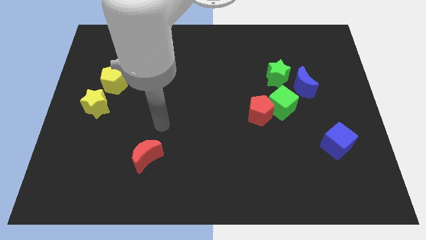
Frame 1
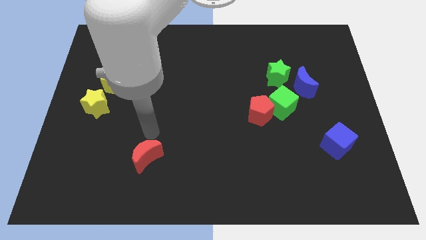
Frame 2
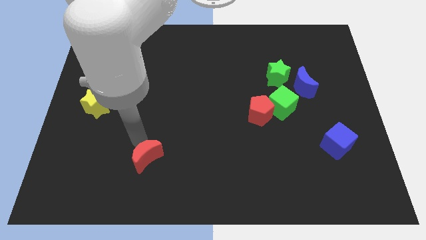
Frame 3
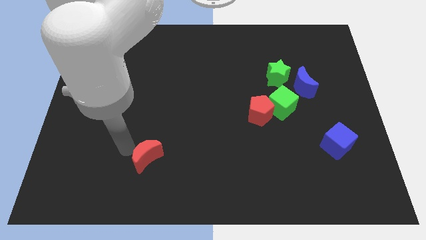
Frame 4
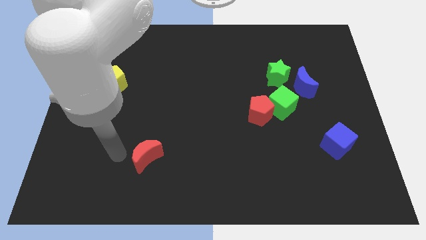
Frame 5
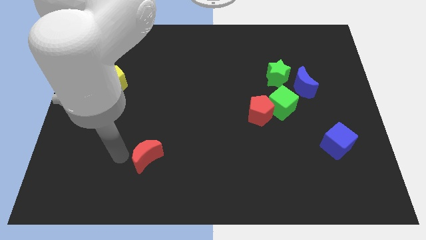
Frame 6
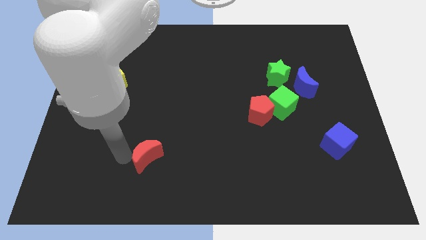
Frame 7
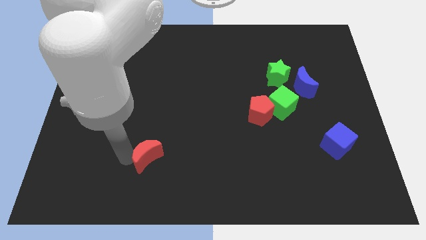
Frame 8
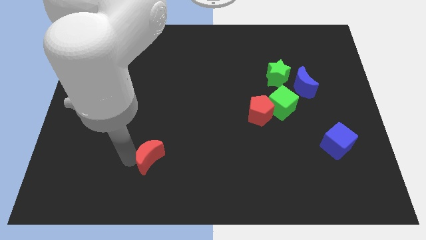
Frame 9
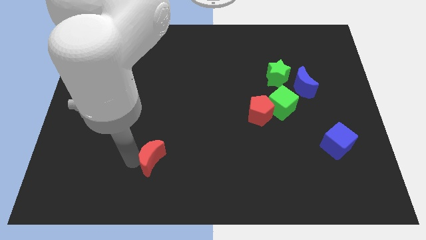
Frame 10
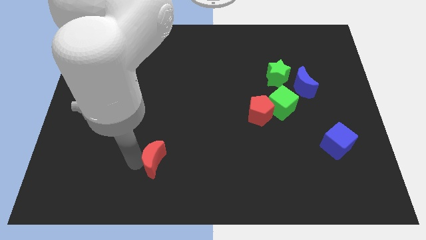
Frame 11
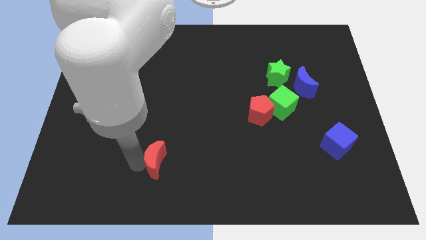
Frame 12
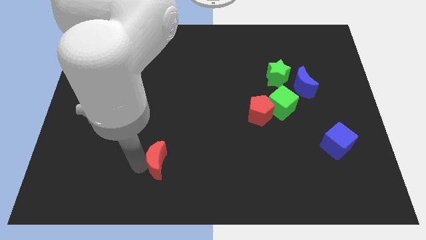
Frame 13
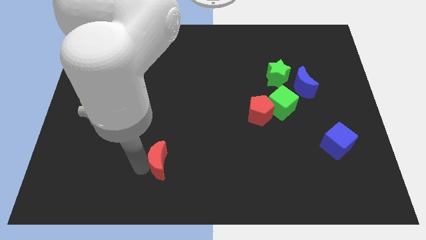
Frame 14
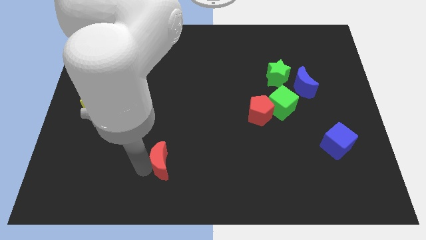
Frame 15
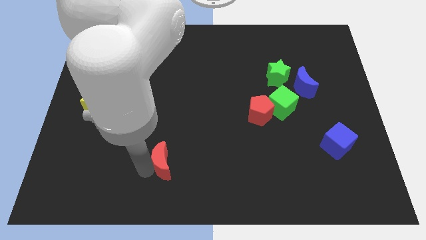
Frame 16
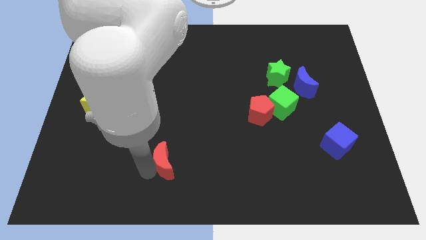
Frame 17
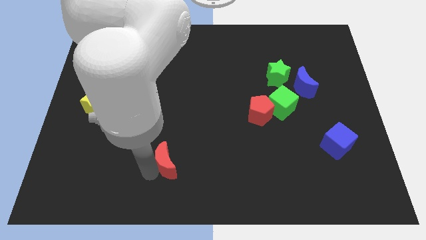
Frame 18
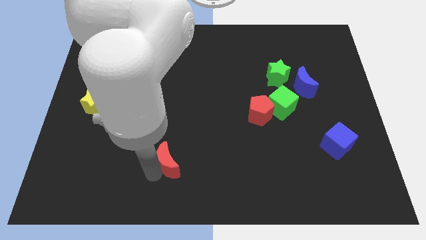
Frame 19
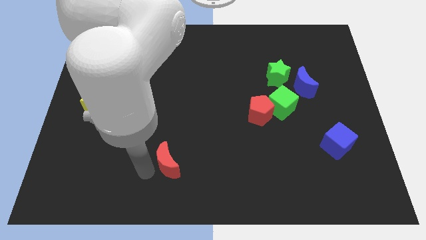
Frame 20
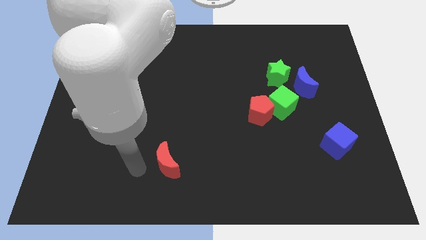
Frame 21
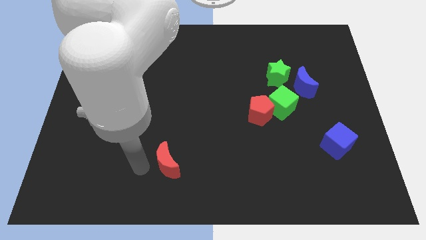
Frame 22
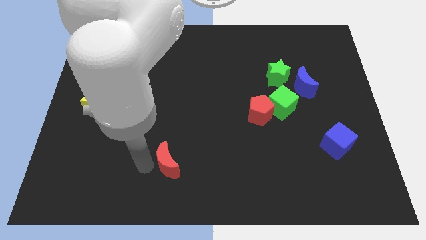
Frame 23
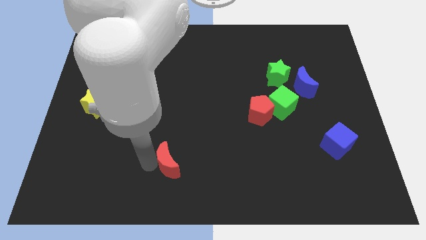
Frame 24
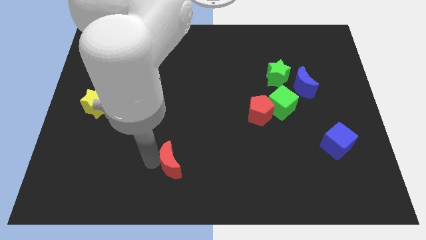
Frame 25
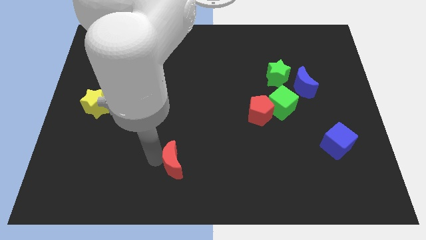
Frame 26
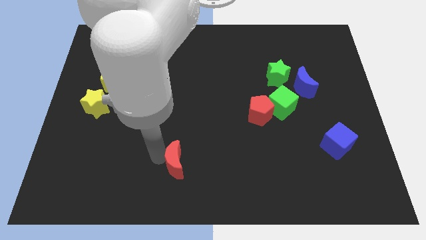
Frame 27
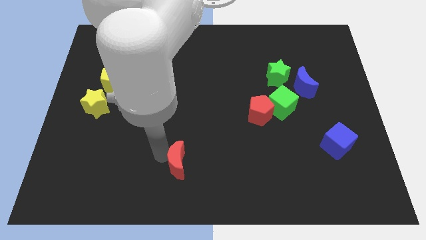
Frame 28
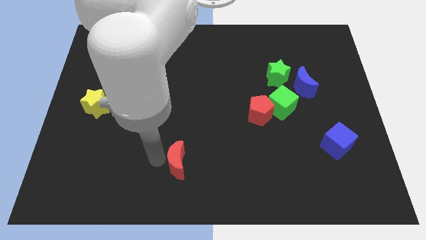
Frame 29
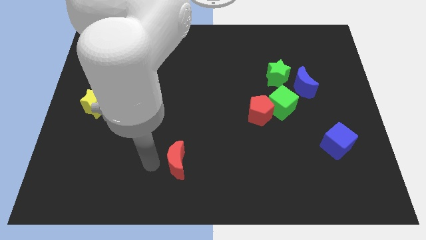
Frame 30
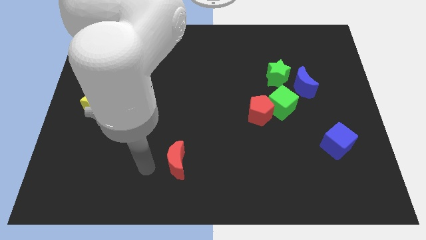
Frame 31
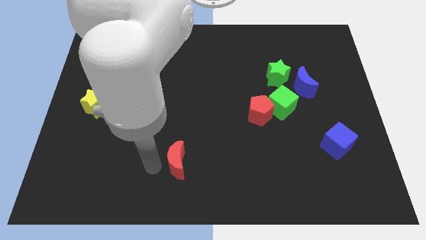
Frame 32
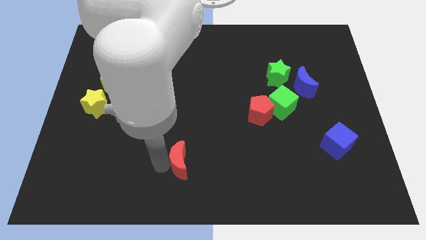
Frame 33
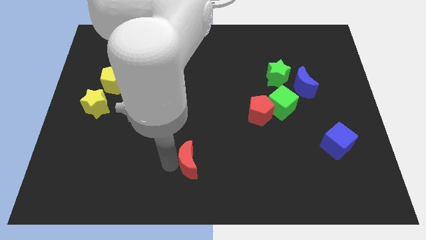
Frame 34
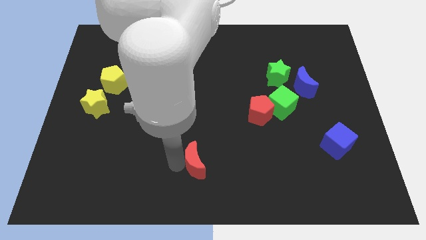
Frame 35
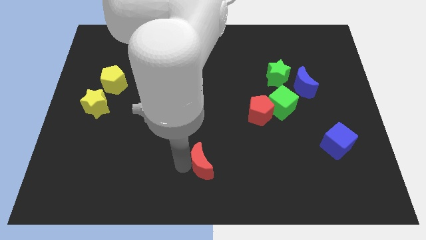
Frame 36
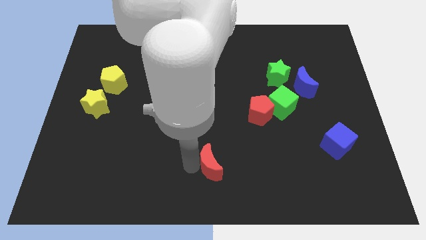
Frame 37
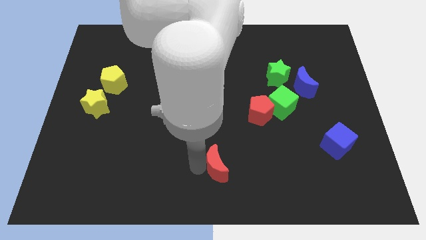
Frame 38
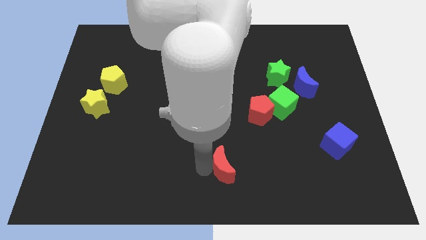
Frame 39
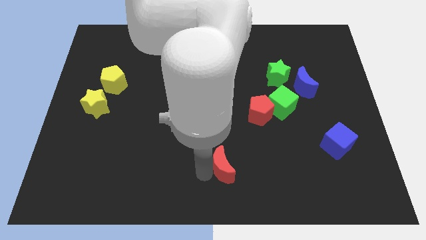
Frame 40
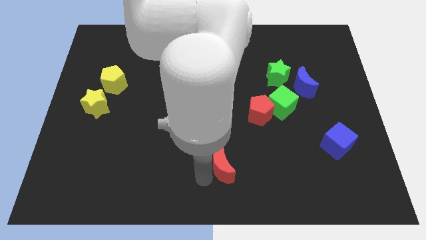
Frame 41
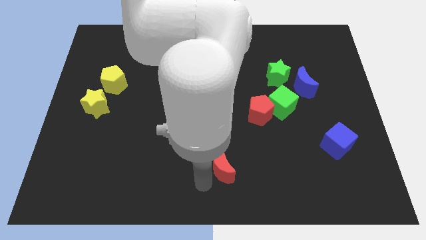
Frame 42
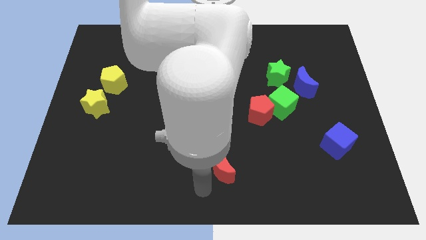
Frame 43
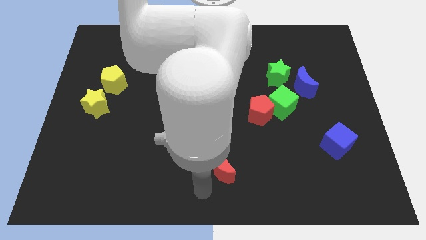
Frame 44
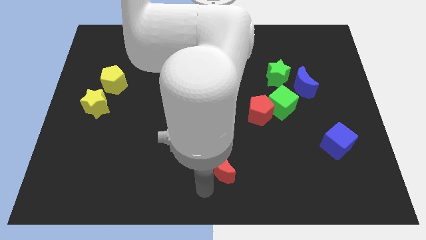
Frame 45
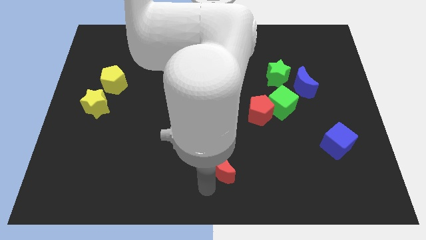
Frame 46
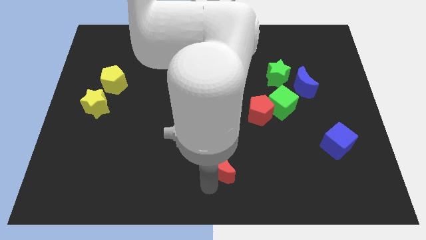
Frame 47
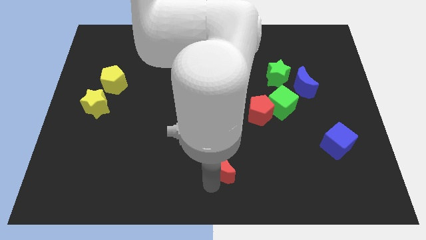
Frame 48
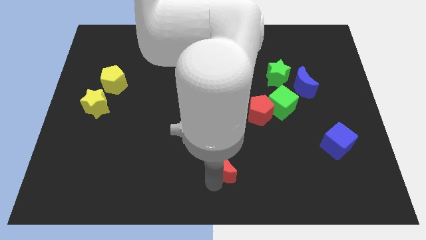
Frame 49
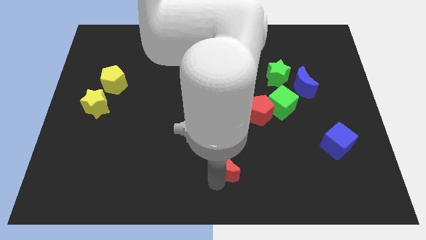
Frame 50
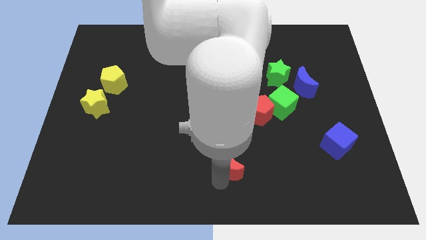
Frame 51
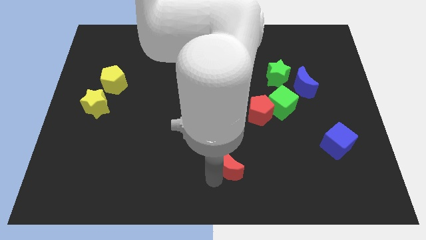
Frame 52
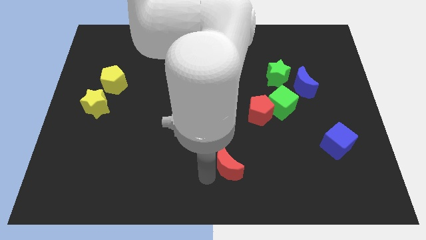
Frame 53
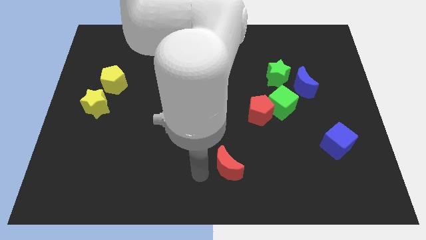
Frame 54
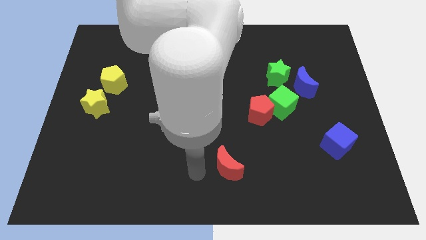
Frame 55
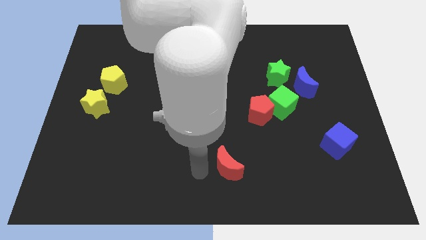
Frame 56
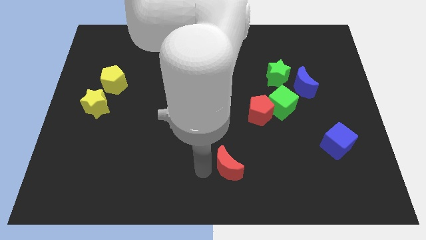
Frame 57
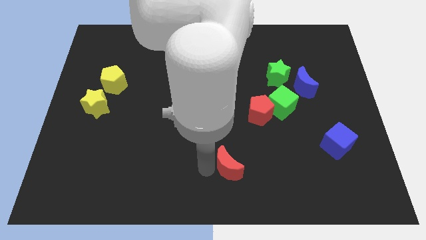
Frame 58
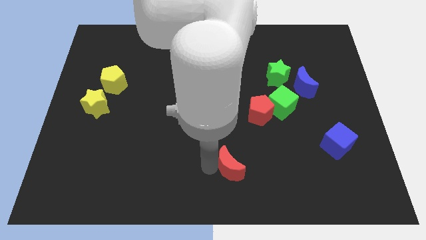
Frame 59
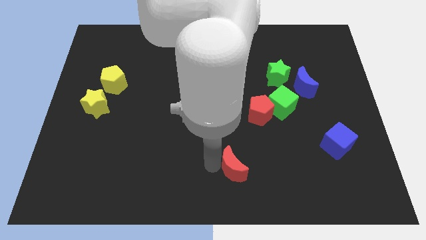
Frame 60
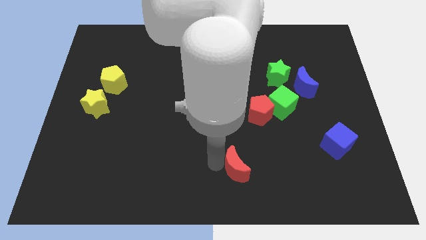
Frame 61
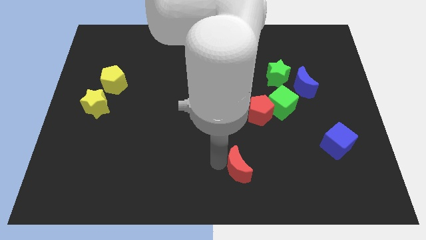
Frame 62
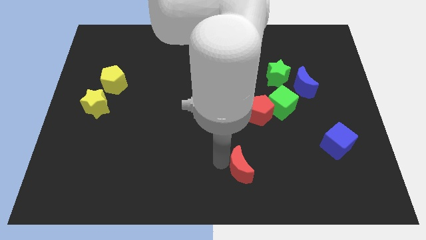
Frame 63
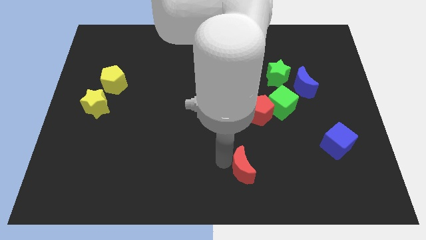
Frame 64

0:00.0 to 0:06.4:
push the red moon right

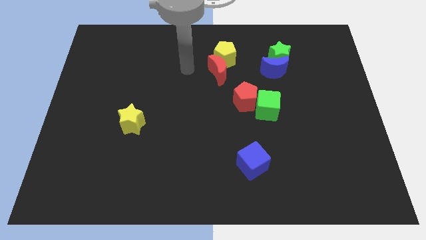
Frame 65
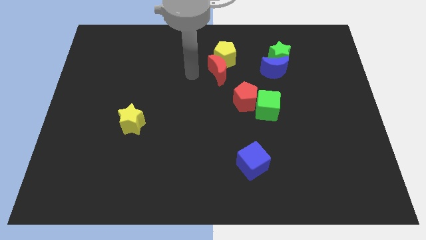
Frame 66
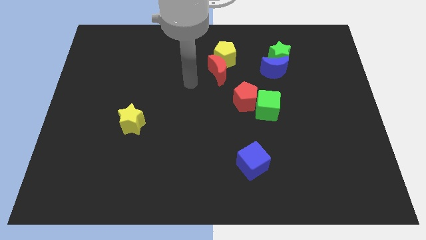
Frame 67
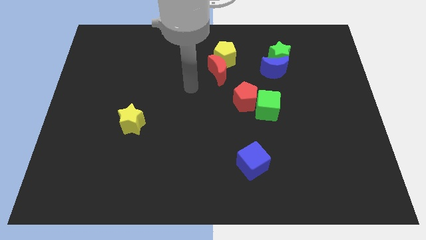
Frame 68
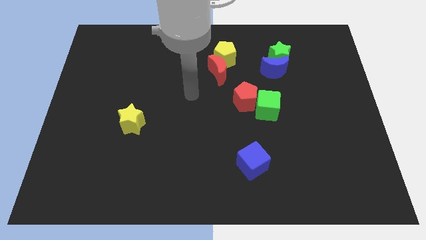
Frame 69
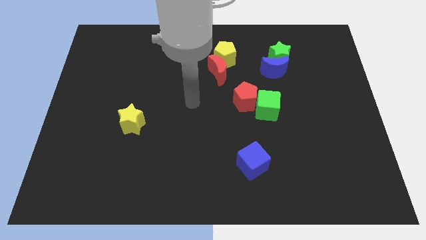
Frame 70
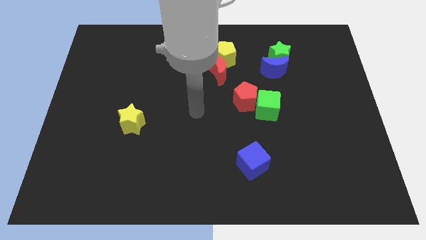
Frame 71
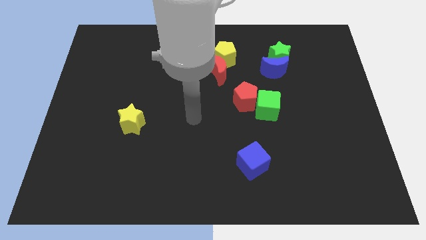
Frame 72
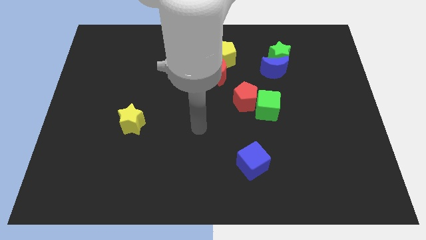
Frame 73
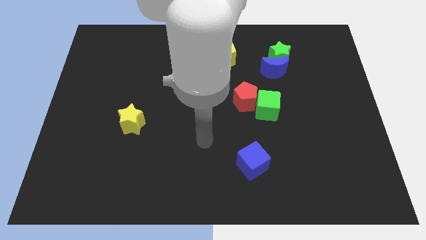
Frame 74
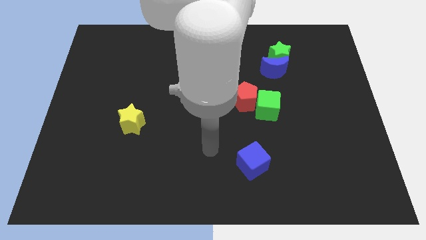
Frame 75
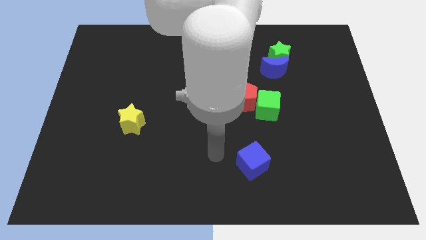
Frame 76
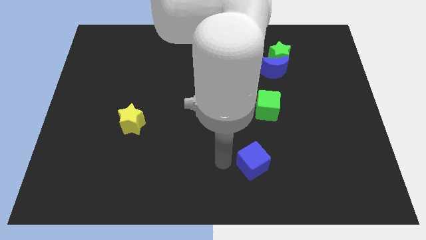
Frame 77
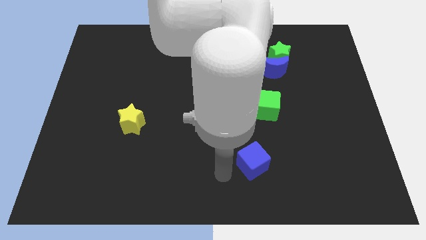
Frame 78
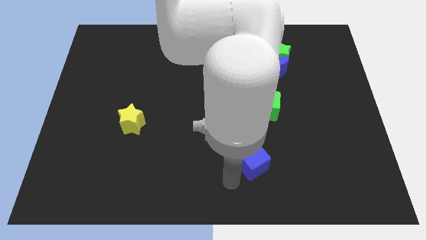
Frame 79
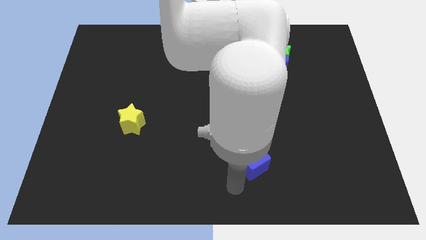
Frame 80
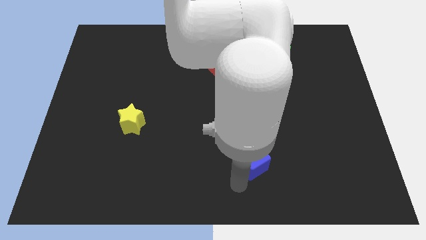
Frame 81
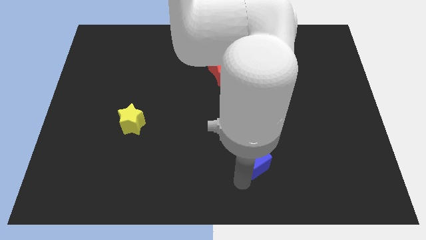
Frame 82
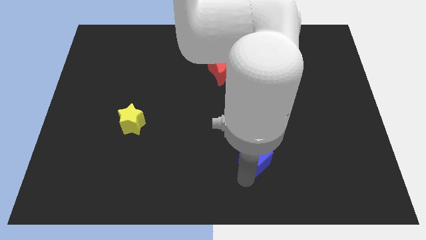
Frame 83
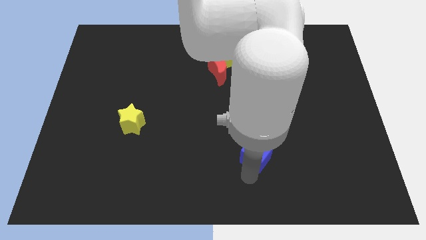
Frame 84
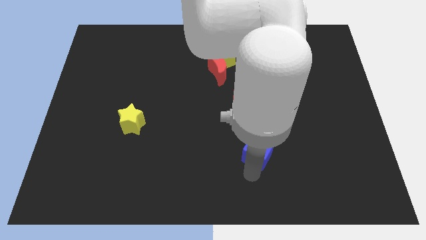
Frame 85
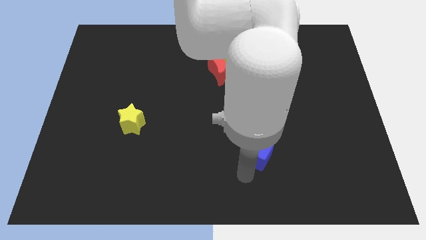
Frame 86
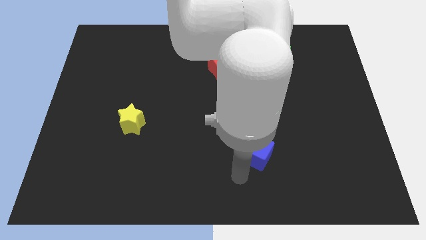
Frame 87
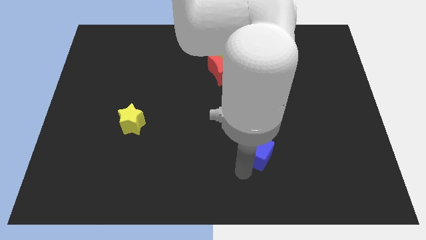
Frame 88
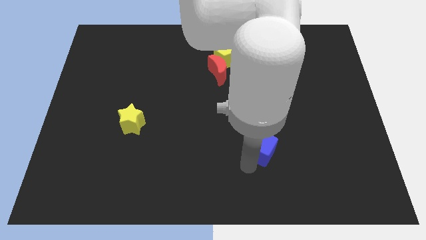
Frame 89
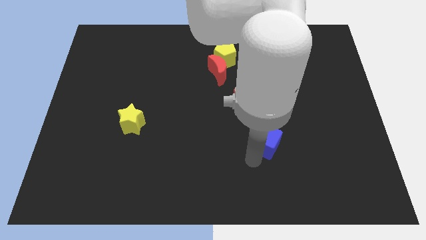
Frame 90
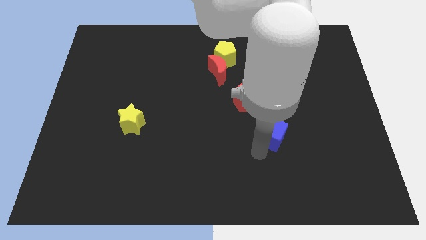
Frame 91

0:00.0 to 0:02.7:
push the blue cube upwards and to the right a little bit
